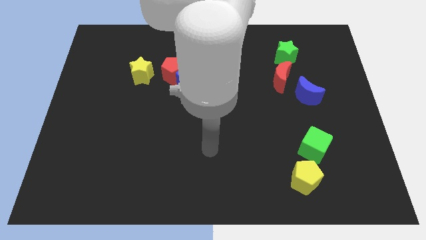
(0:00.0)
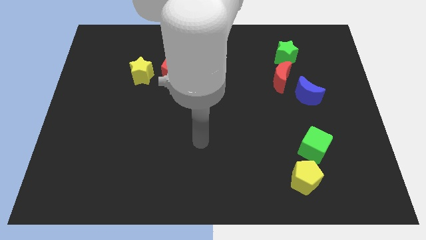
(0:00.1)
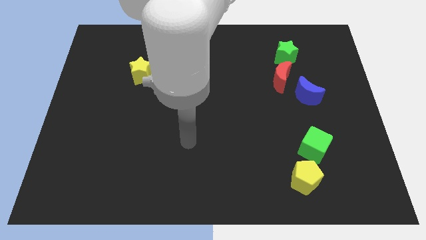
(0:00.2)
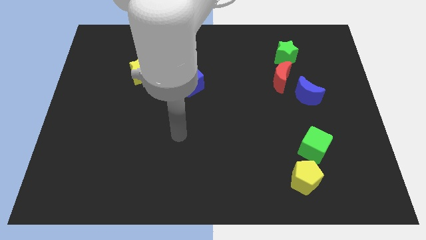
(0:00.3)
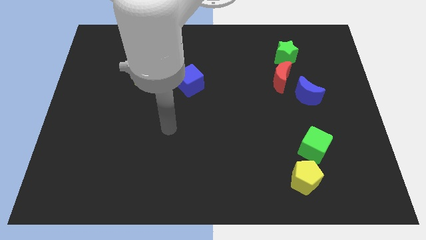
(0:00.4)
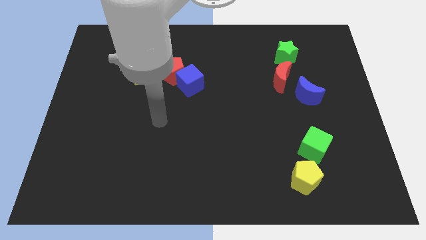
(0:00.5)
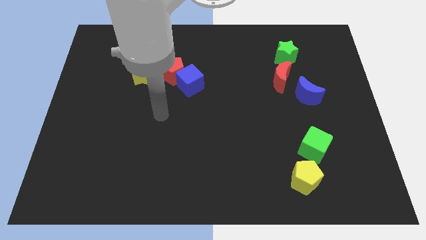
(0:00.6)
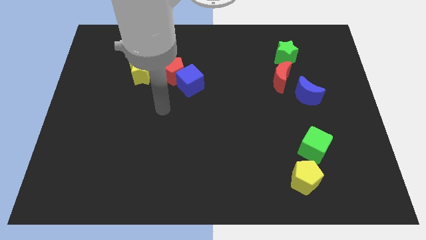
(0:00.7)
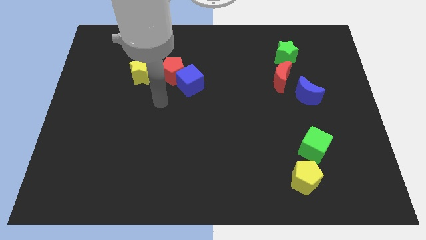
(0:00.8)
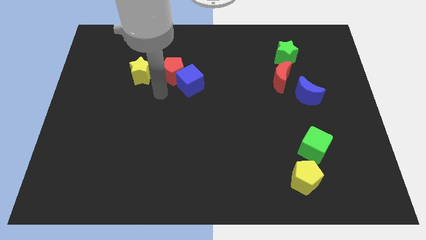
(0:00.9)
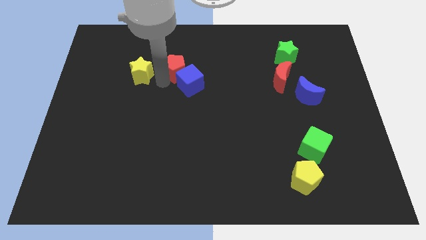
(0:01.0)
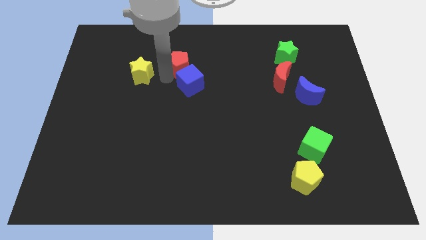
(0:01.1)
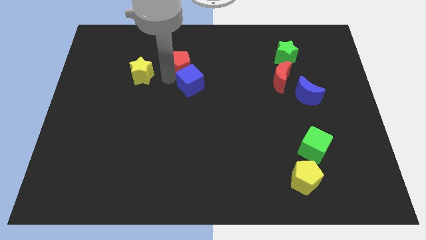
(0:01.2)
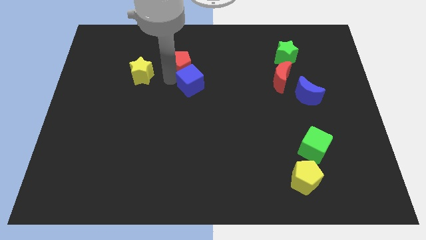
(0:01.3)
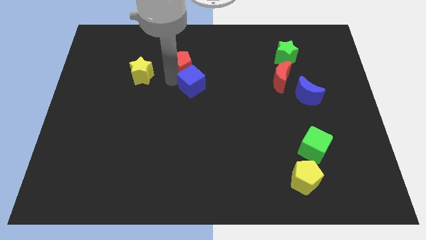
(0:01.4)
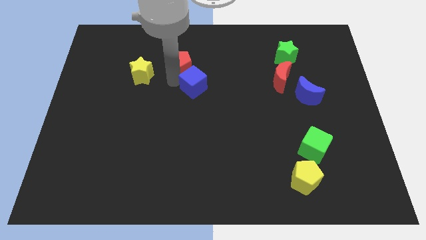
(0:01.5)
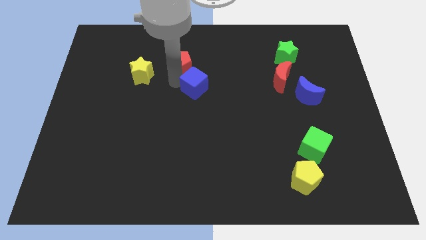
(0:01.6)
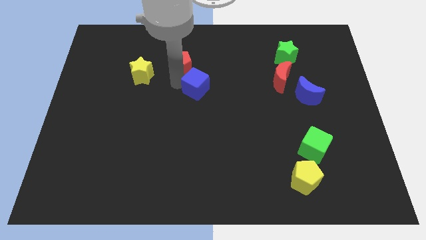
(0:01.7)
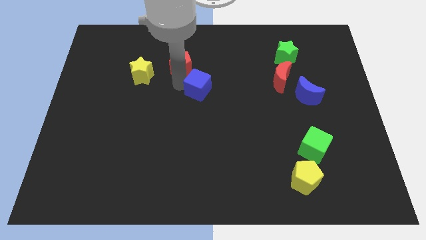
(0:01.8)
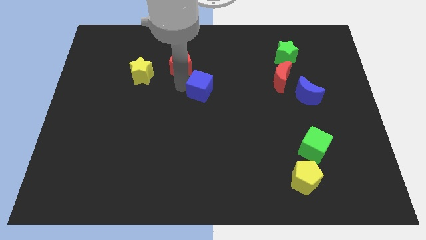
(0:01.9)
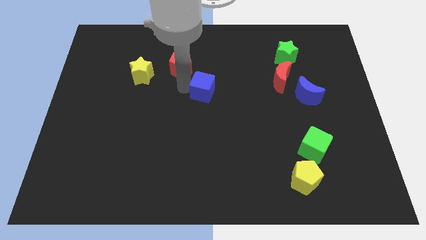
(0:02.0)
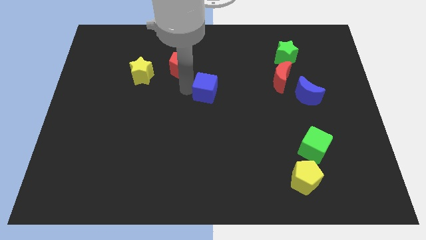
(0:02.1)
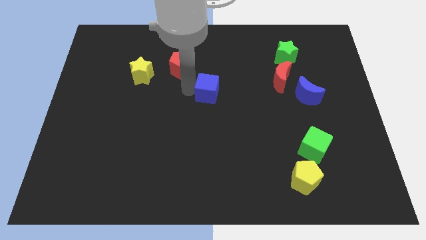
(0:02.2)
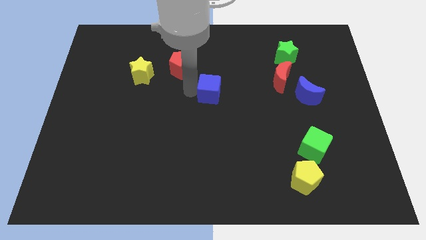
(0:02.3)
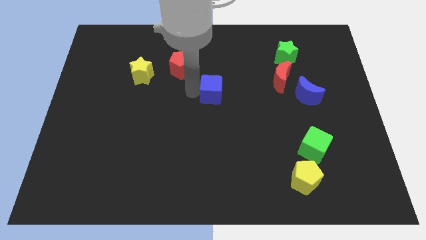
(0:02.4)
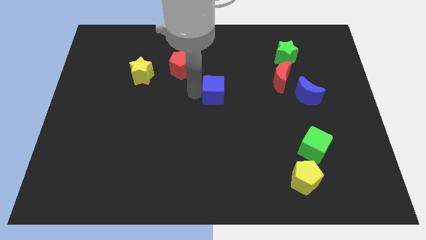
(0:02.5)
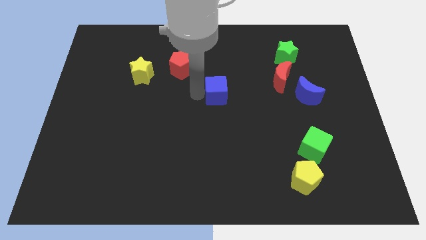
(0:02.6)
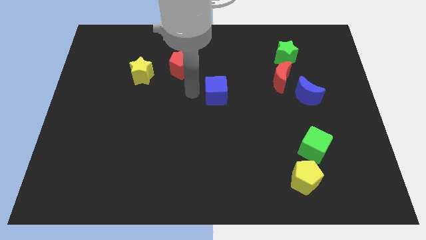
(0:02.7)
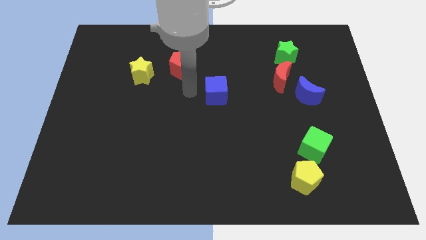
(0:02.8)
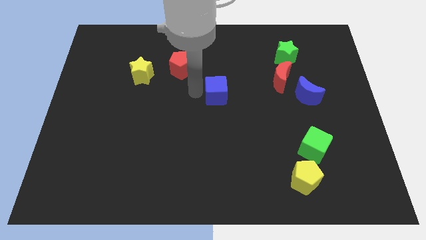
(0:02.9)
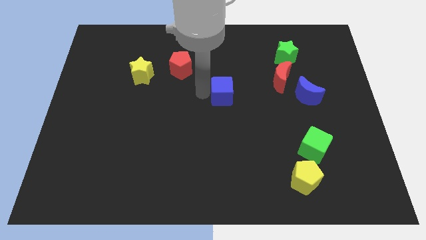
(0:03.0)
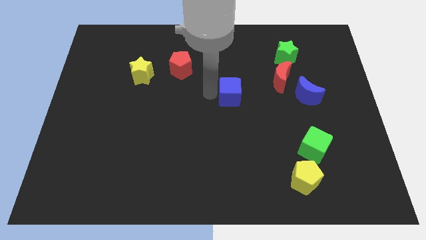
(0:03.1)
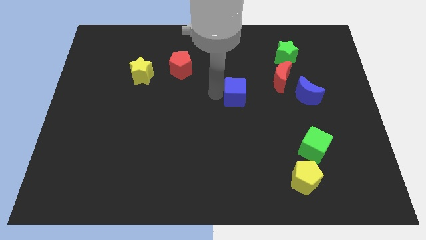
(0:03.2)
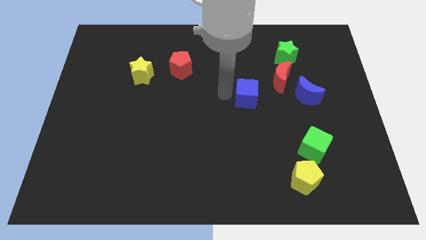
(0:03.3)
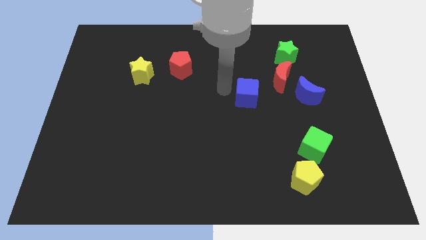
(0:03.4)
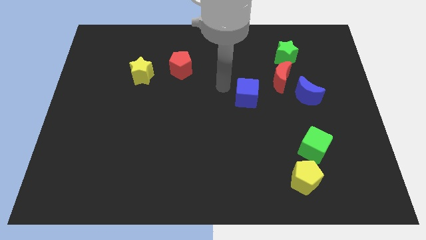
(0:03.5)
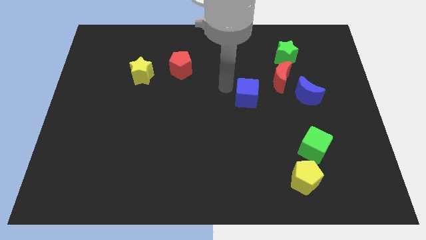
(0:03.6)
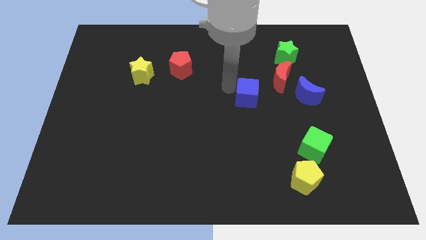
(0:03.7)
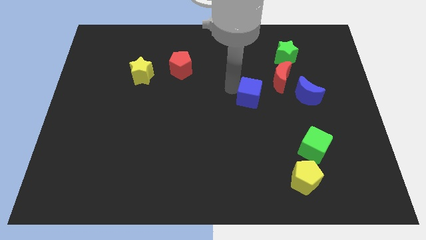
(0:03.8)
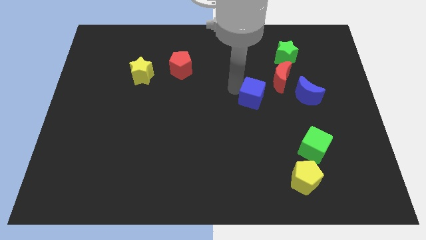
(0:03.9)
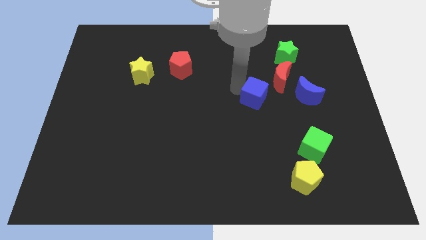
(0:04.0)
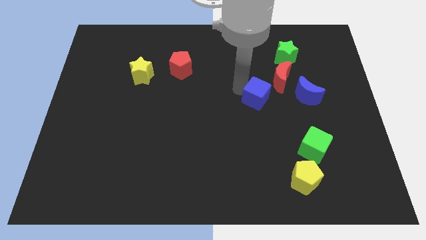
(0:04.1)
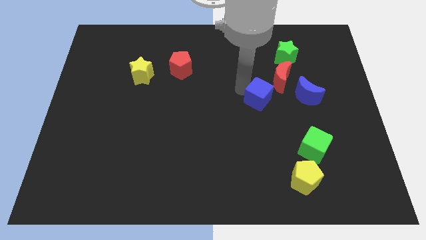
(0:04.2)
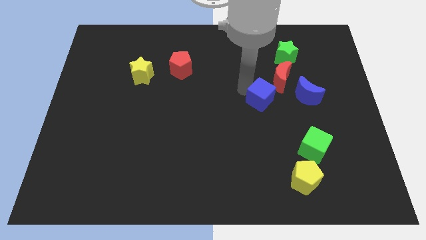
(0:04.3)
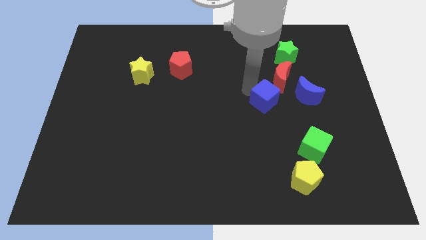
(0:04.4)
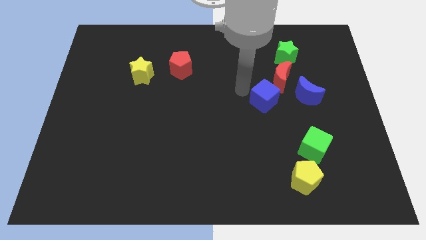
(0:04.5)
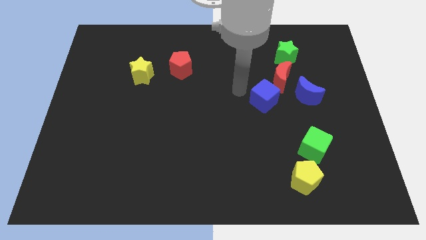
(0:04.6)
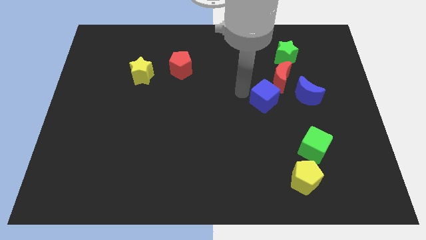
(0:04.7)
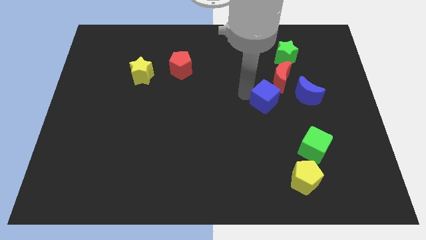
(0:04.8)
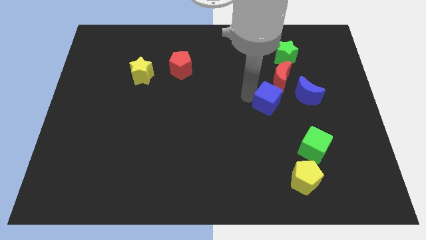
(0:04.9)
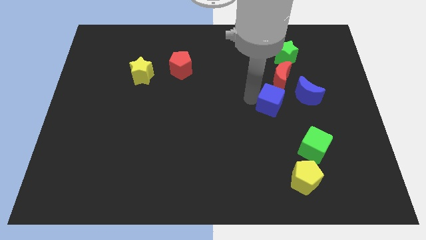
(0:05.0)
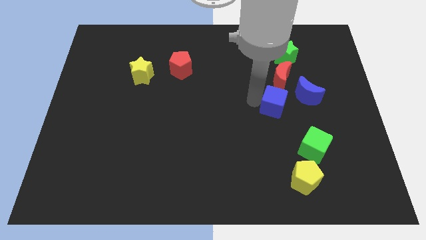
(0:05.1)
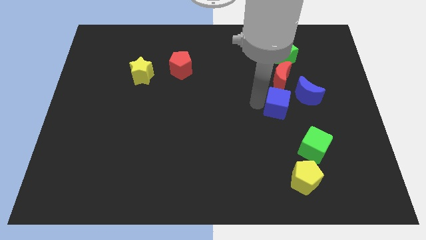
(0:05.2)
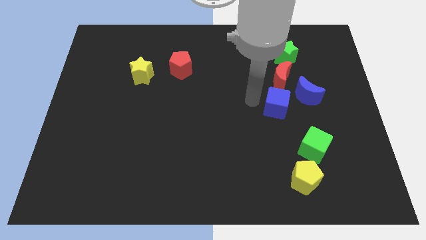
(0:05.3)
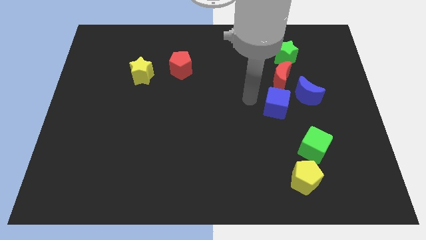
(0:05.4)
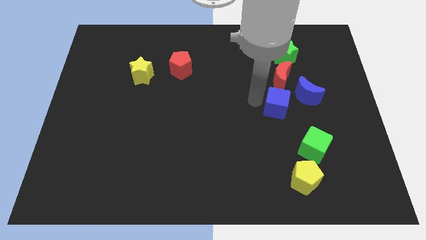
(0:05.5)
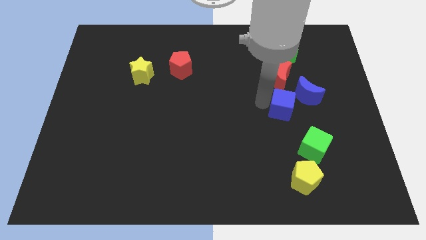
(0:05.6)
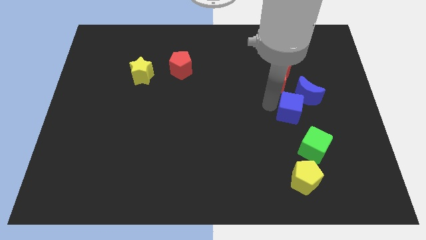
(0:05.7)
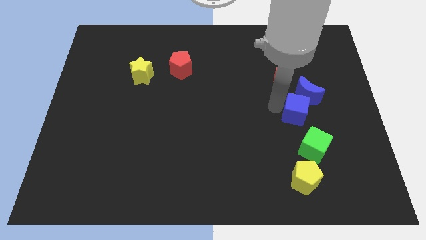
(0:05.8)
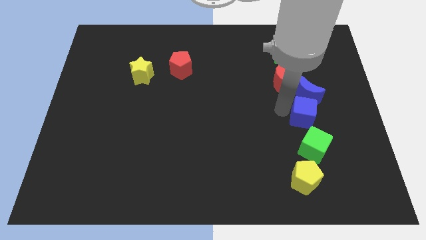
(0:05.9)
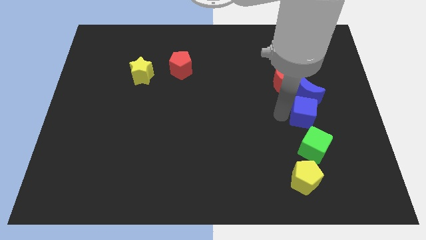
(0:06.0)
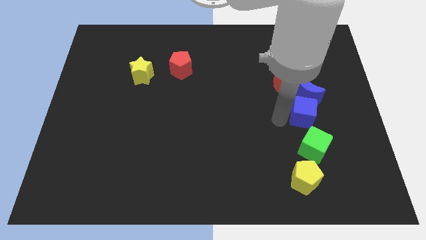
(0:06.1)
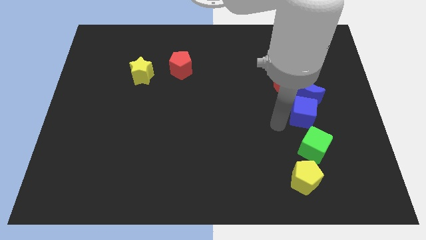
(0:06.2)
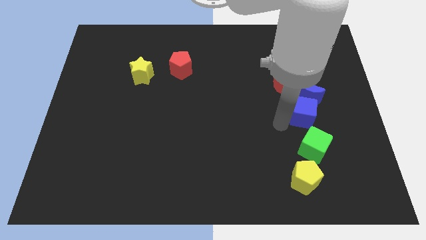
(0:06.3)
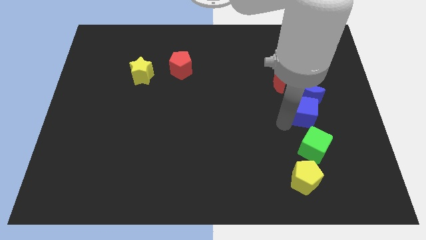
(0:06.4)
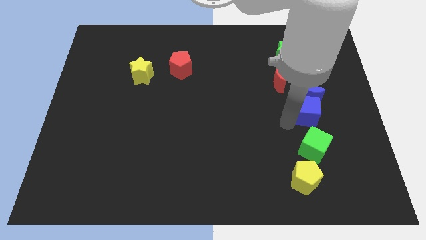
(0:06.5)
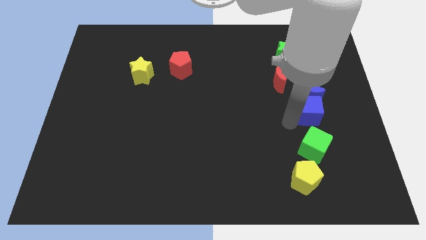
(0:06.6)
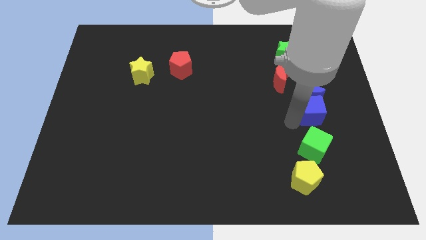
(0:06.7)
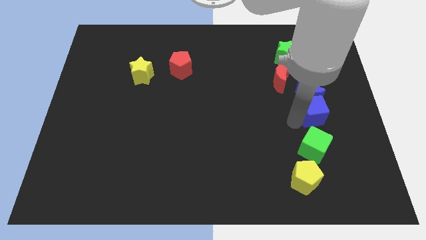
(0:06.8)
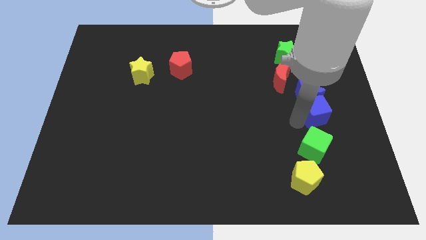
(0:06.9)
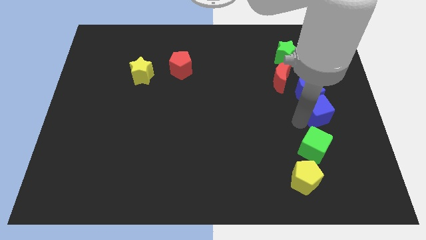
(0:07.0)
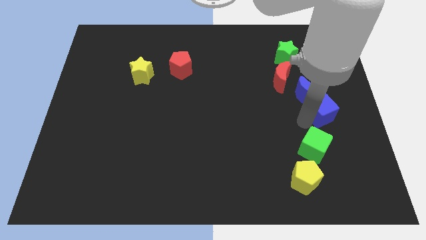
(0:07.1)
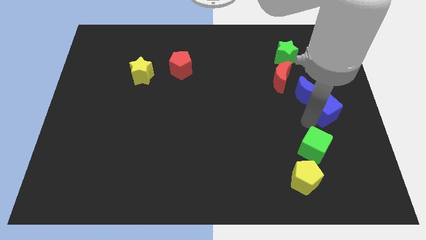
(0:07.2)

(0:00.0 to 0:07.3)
slide the blue cube to the right side of the board
